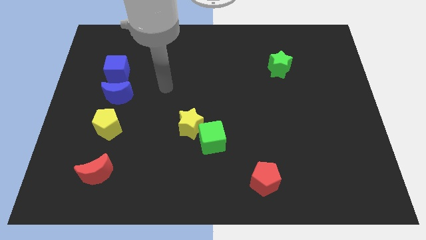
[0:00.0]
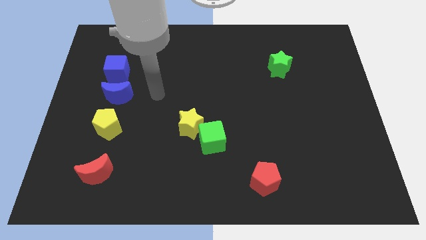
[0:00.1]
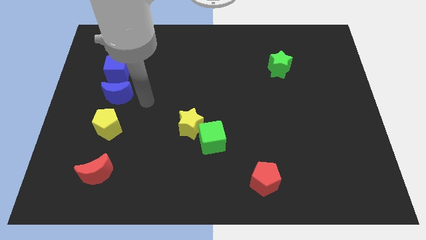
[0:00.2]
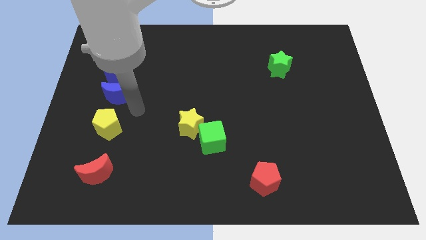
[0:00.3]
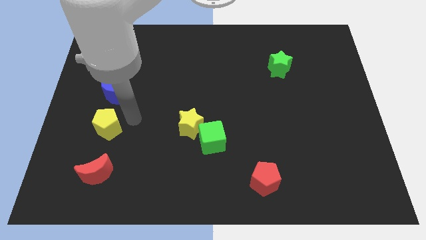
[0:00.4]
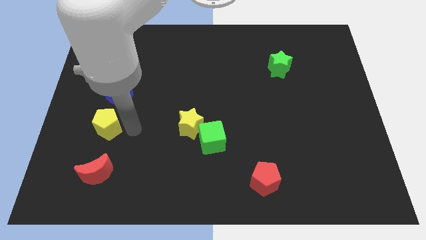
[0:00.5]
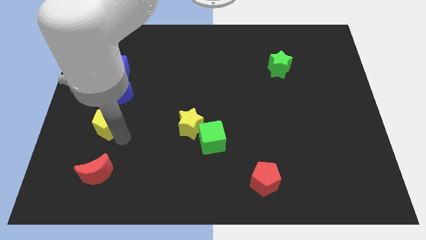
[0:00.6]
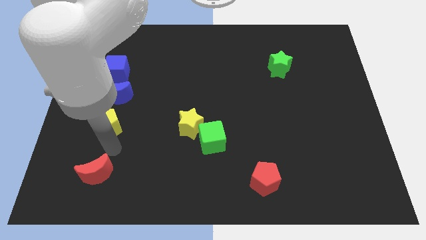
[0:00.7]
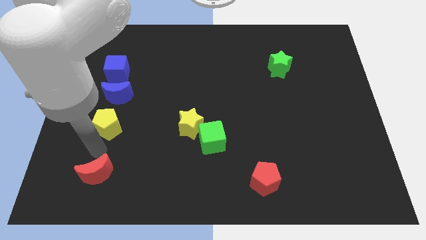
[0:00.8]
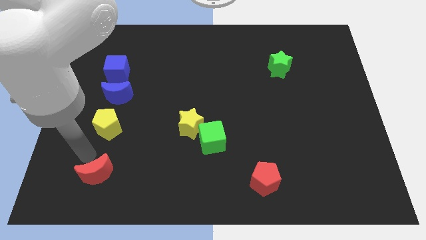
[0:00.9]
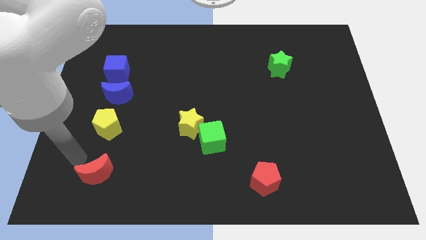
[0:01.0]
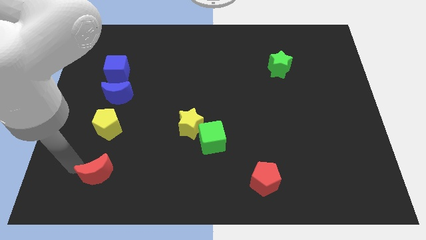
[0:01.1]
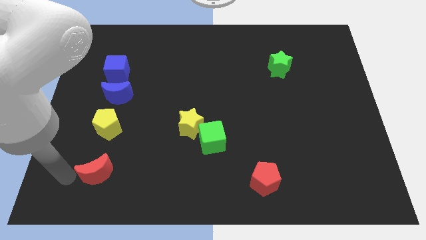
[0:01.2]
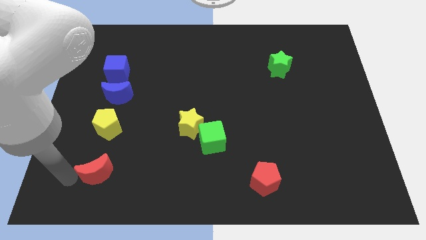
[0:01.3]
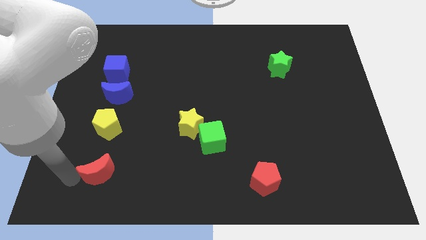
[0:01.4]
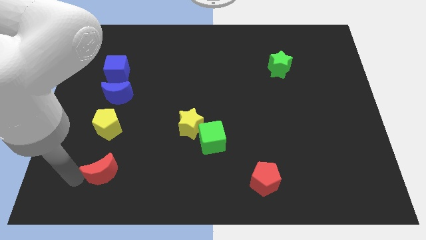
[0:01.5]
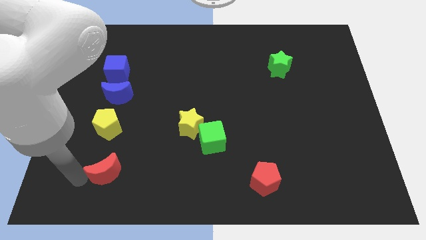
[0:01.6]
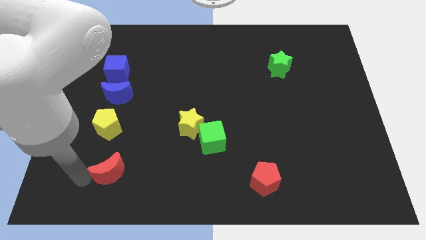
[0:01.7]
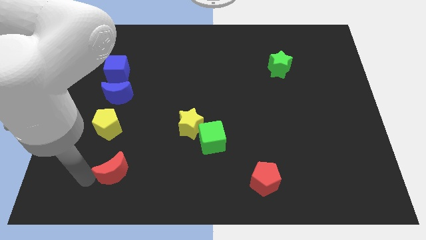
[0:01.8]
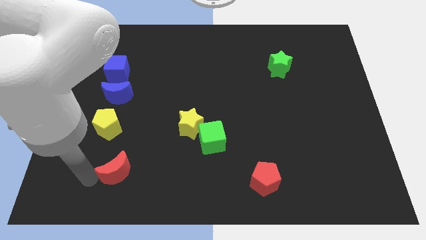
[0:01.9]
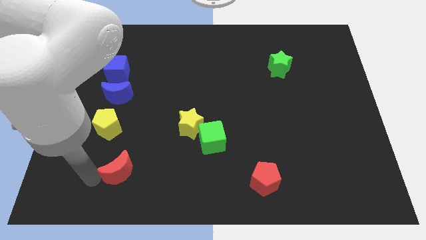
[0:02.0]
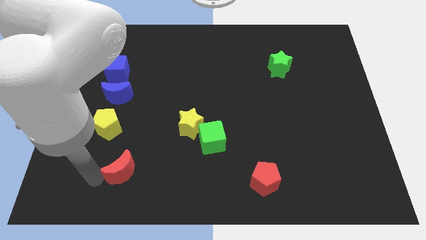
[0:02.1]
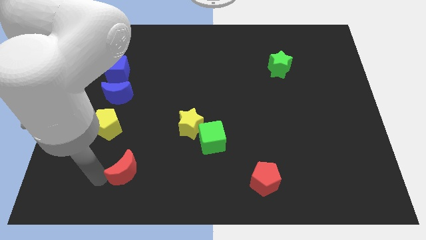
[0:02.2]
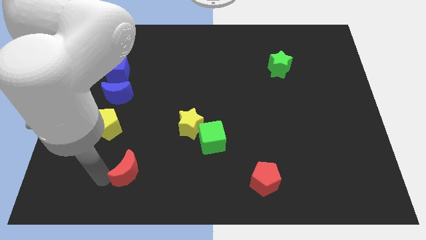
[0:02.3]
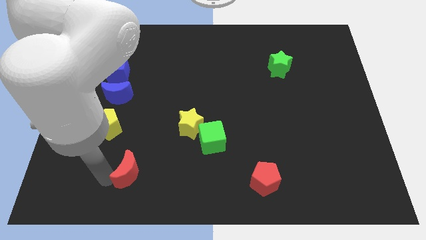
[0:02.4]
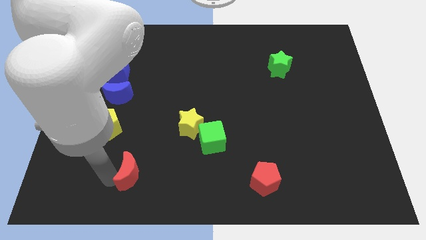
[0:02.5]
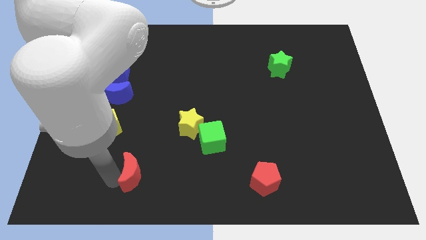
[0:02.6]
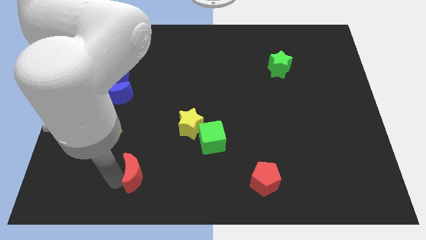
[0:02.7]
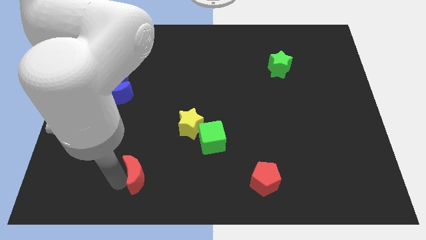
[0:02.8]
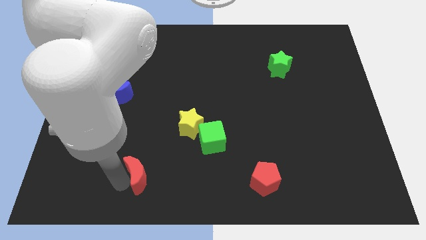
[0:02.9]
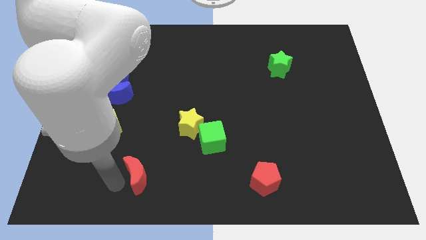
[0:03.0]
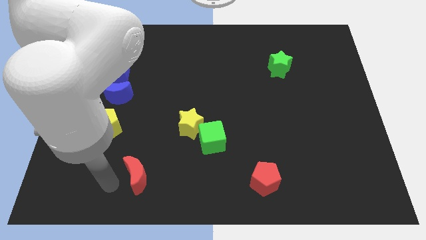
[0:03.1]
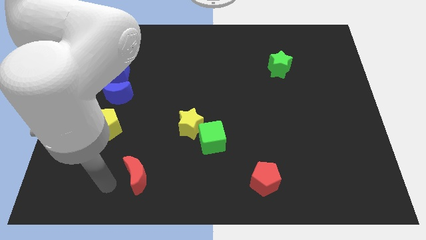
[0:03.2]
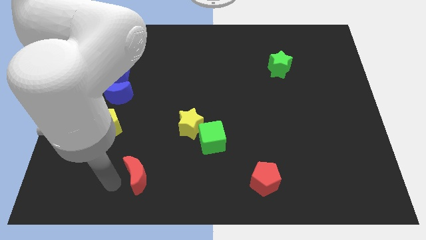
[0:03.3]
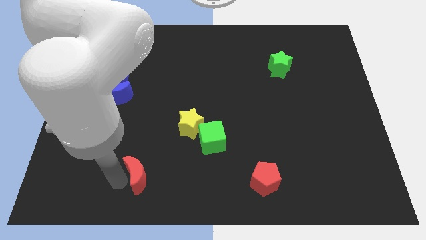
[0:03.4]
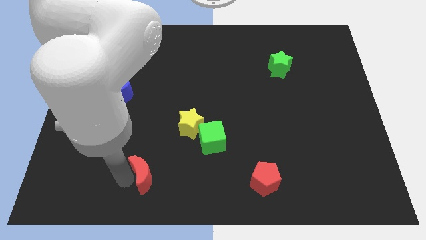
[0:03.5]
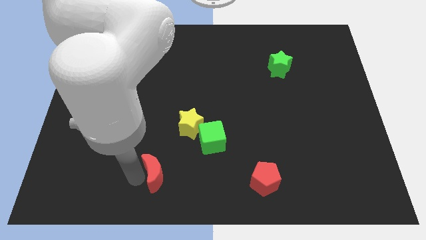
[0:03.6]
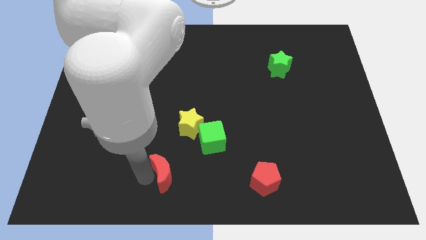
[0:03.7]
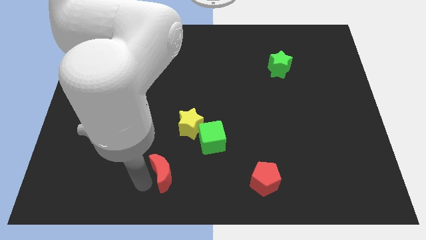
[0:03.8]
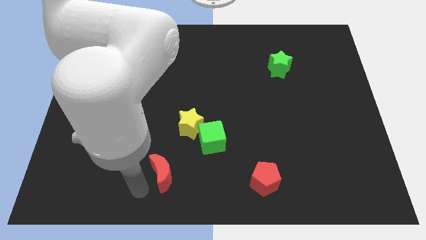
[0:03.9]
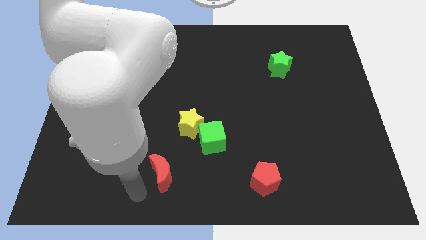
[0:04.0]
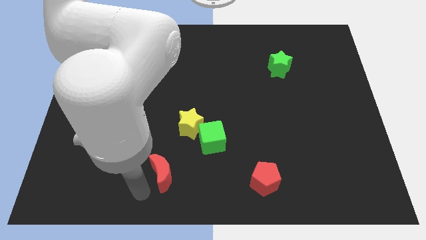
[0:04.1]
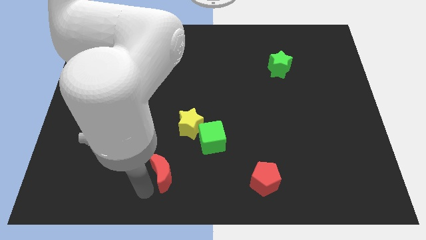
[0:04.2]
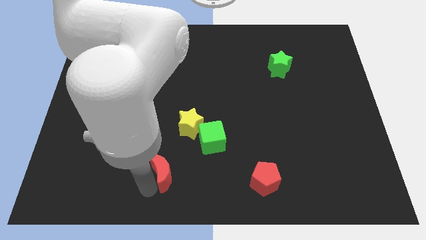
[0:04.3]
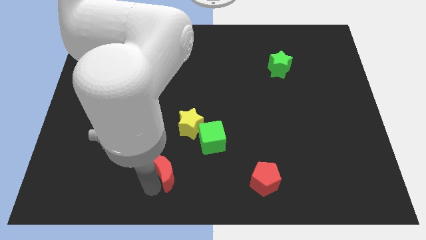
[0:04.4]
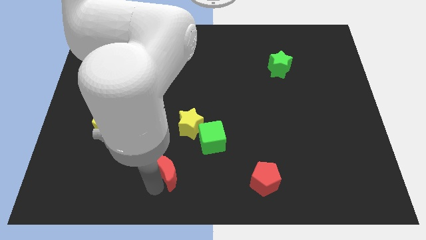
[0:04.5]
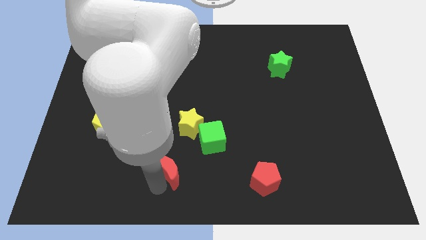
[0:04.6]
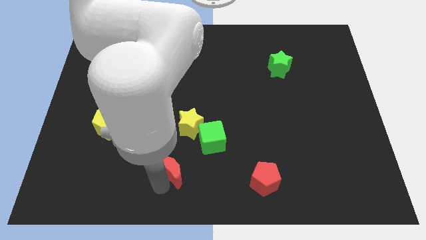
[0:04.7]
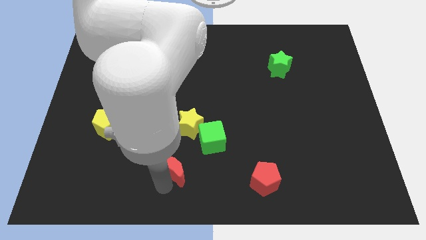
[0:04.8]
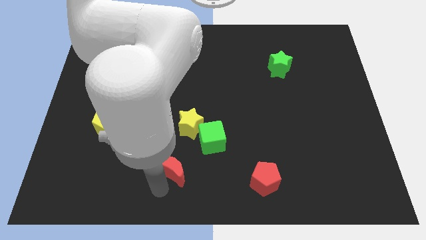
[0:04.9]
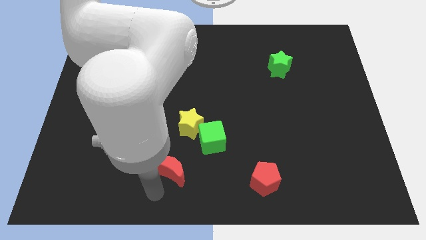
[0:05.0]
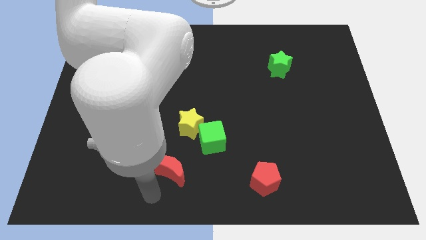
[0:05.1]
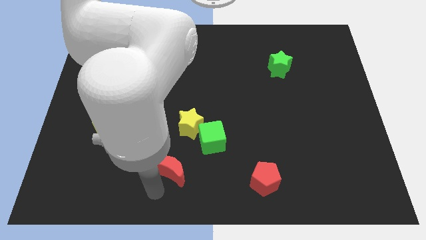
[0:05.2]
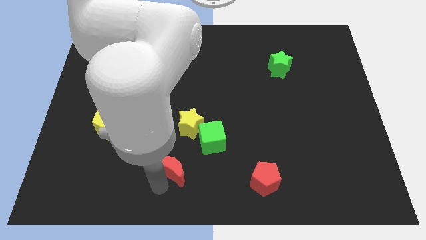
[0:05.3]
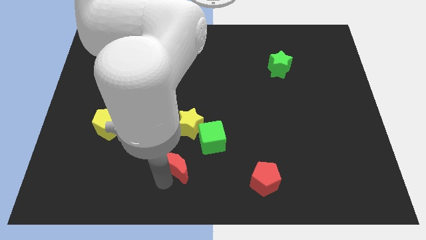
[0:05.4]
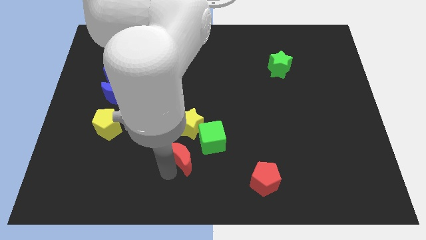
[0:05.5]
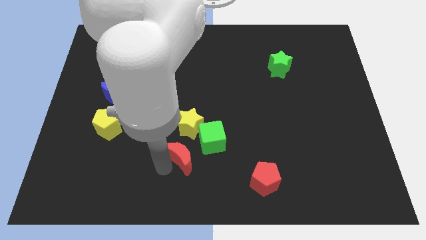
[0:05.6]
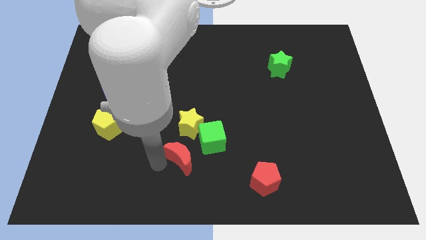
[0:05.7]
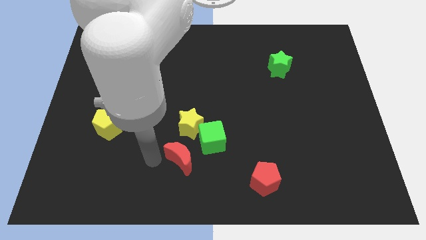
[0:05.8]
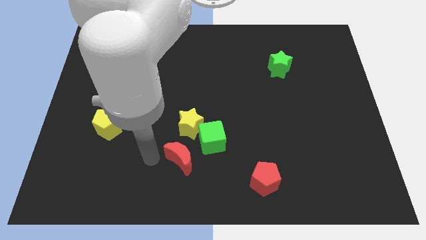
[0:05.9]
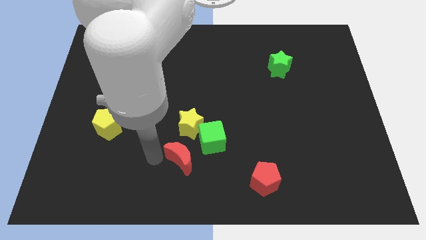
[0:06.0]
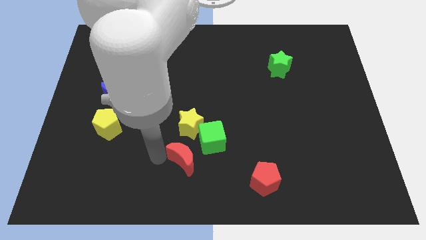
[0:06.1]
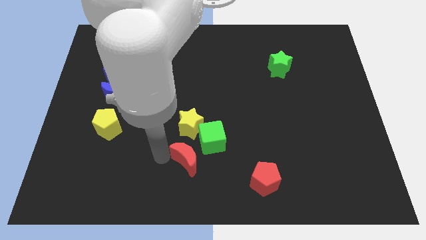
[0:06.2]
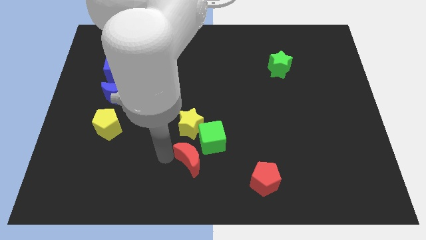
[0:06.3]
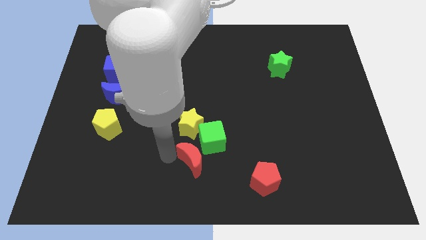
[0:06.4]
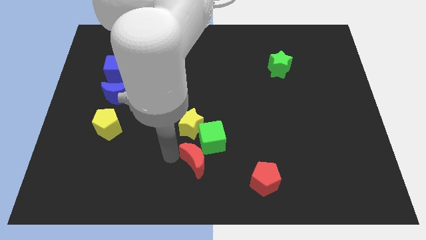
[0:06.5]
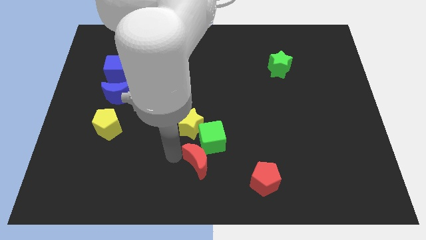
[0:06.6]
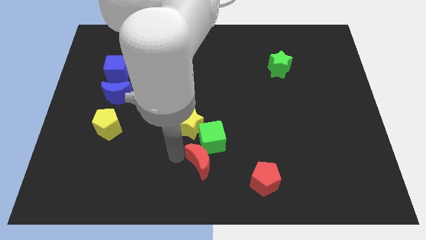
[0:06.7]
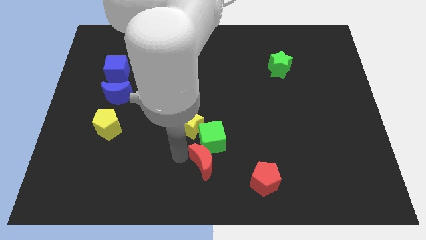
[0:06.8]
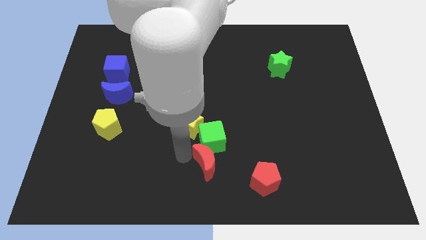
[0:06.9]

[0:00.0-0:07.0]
put the red moon to the bottom right side of the green cube
